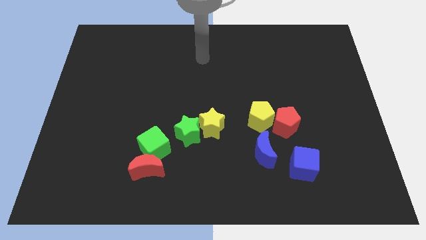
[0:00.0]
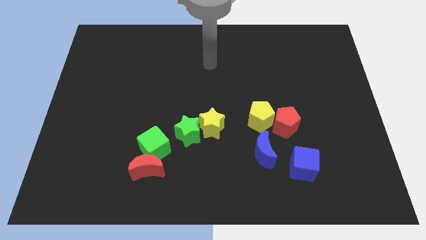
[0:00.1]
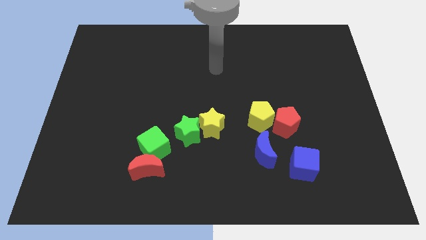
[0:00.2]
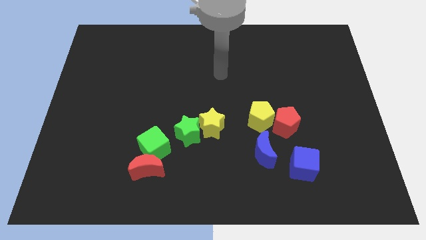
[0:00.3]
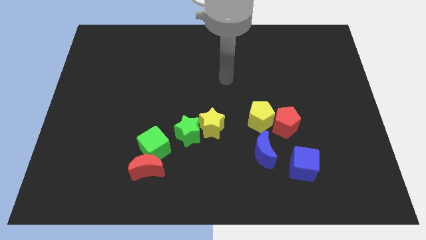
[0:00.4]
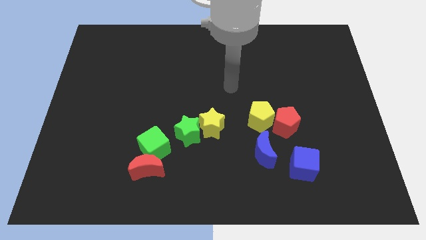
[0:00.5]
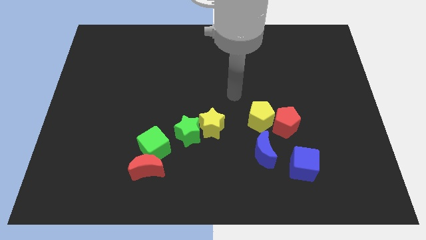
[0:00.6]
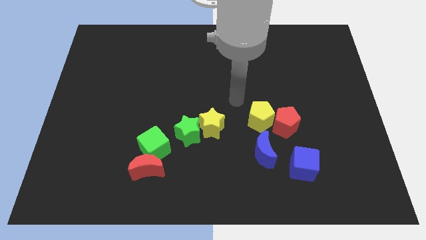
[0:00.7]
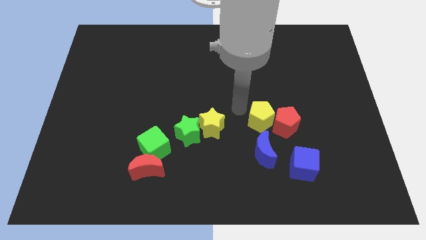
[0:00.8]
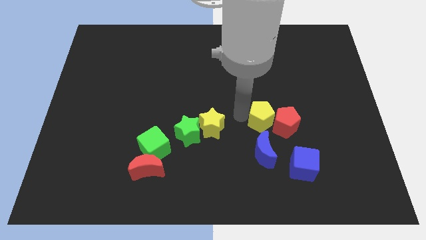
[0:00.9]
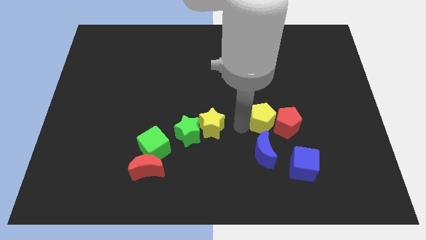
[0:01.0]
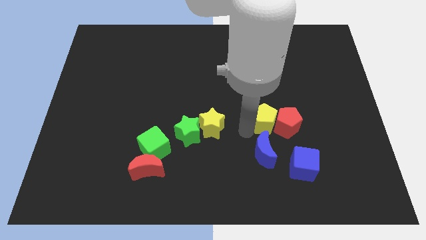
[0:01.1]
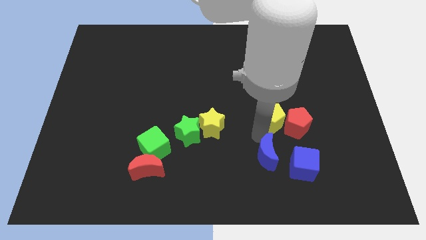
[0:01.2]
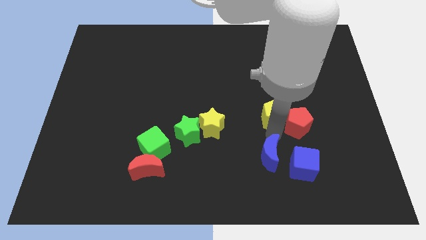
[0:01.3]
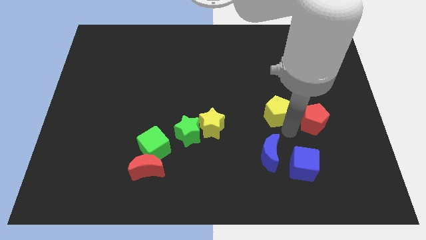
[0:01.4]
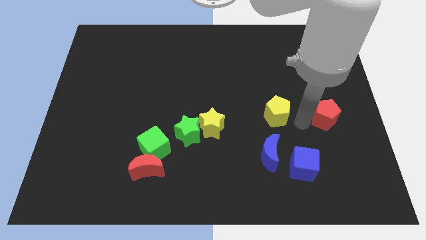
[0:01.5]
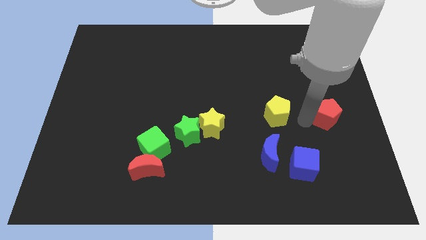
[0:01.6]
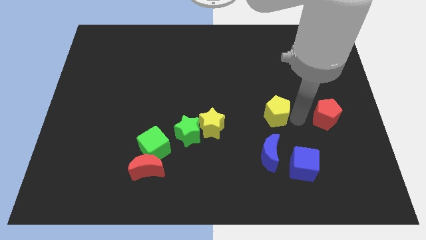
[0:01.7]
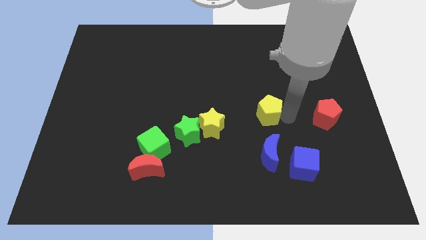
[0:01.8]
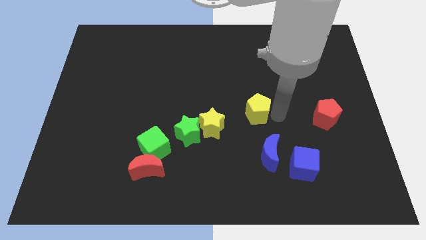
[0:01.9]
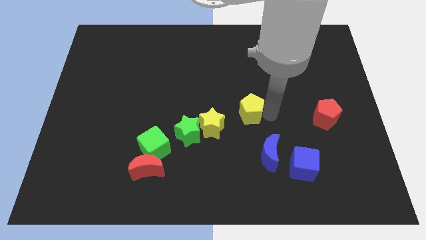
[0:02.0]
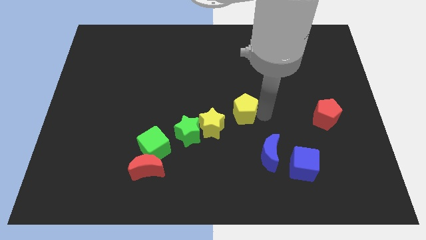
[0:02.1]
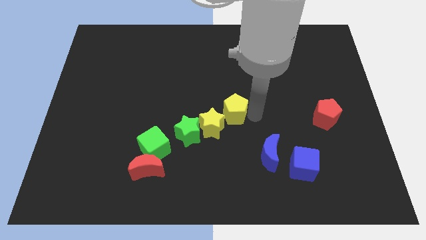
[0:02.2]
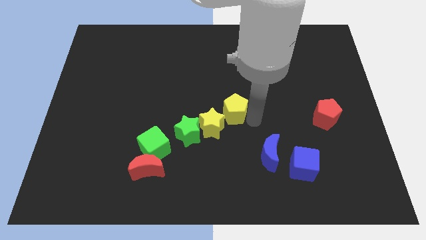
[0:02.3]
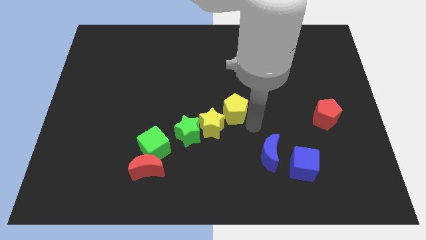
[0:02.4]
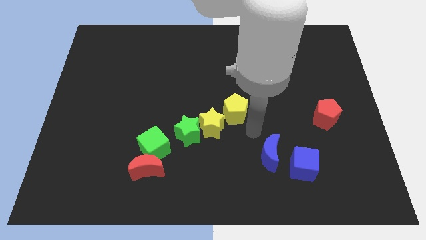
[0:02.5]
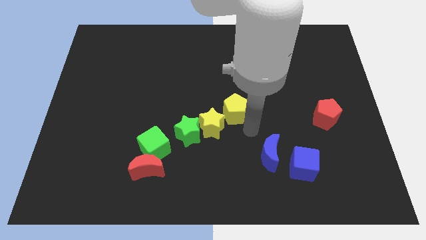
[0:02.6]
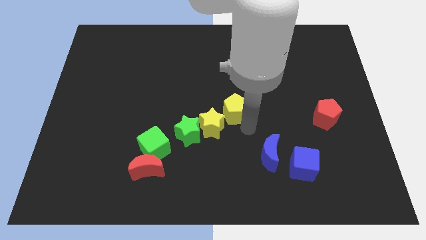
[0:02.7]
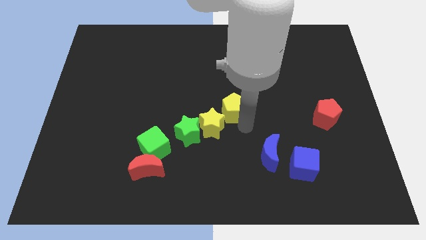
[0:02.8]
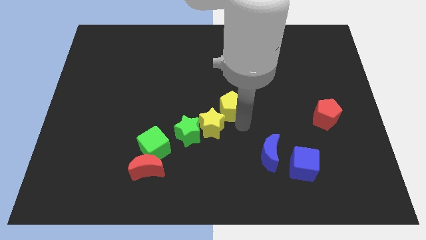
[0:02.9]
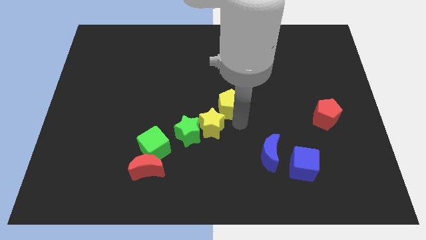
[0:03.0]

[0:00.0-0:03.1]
slightly slide the yellow pentagon diagonally upwards and to the left

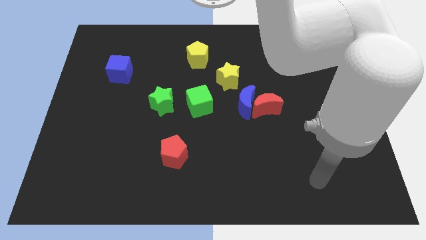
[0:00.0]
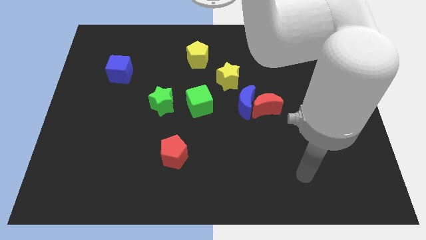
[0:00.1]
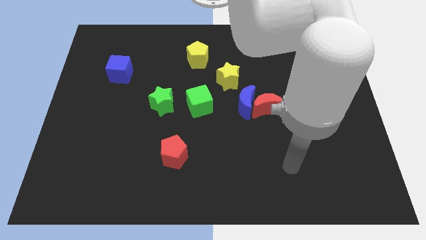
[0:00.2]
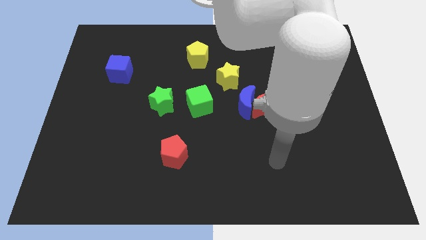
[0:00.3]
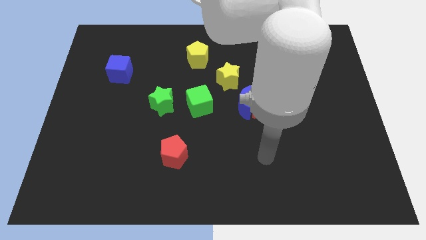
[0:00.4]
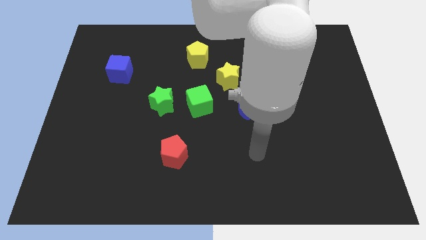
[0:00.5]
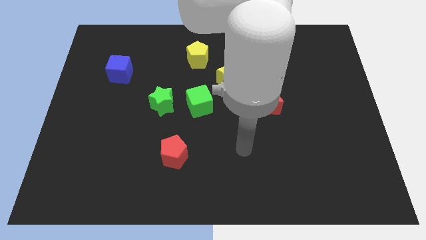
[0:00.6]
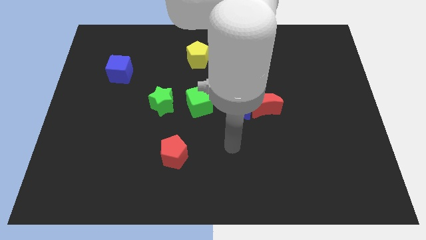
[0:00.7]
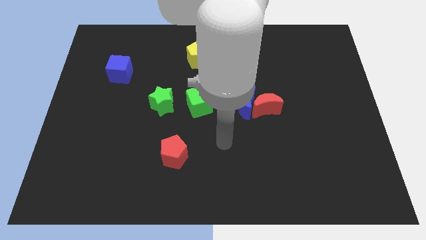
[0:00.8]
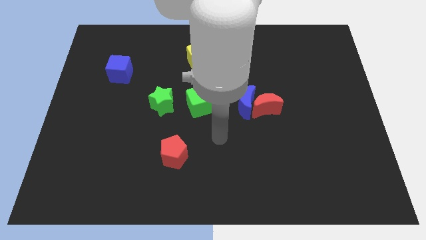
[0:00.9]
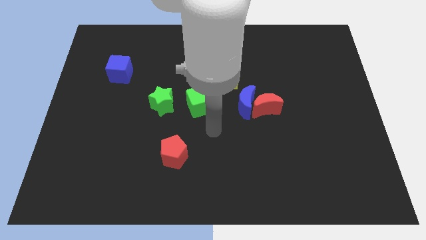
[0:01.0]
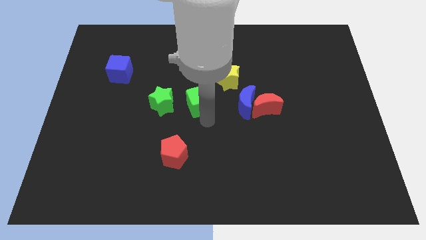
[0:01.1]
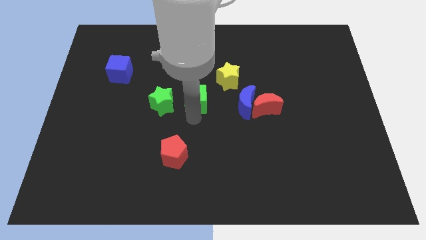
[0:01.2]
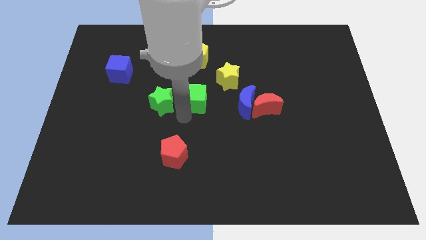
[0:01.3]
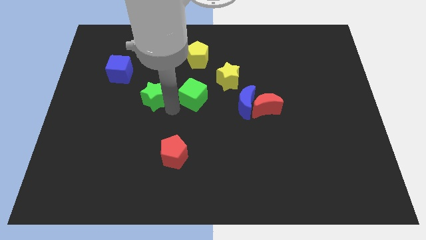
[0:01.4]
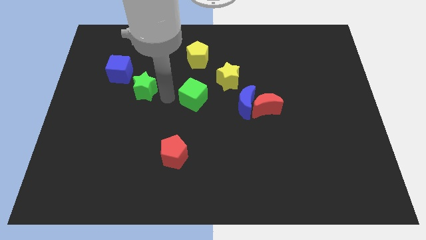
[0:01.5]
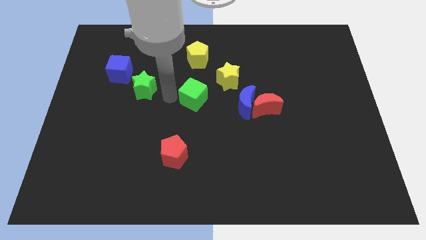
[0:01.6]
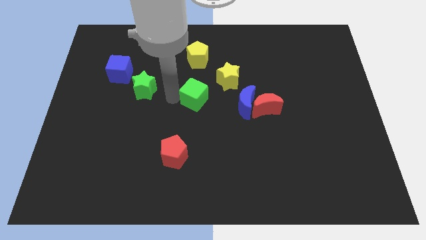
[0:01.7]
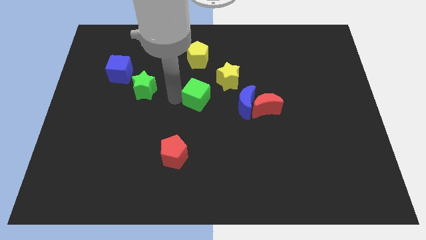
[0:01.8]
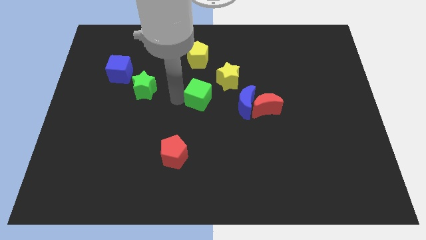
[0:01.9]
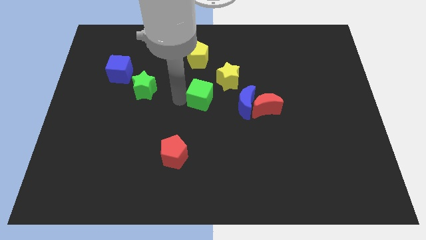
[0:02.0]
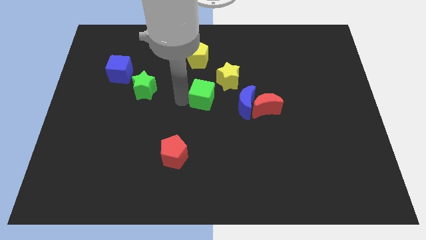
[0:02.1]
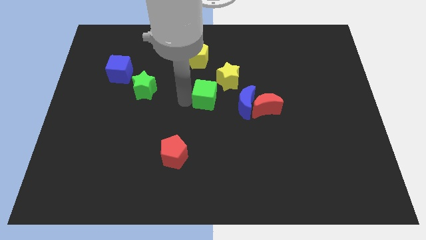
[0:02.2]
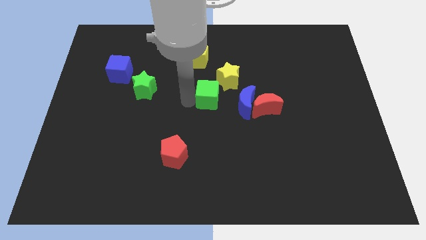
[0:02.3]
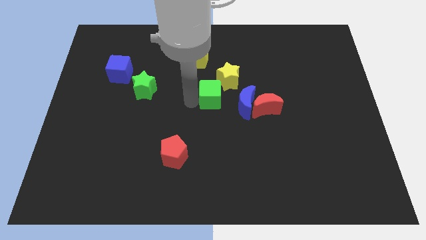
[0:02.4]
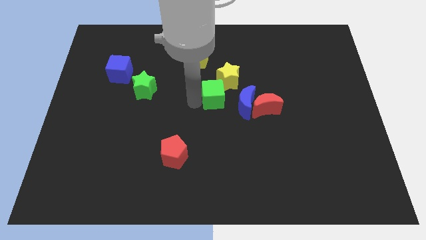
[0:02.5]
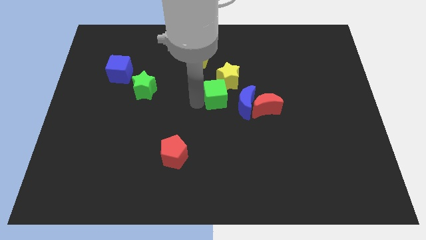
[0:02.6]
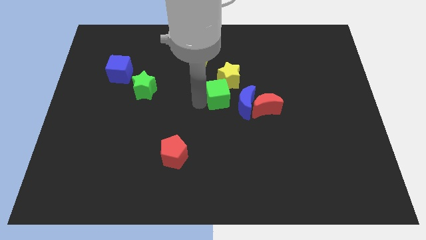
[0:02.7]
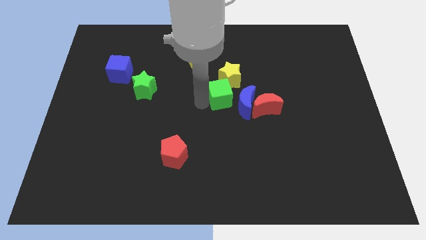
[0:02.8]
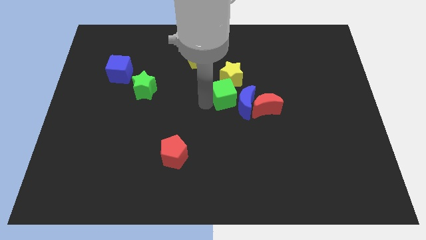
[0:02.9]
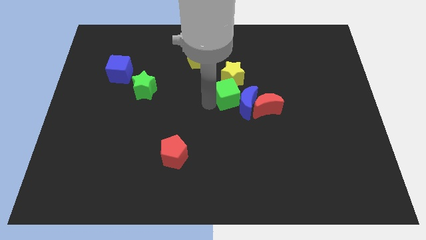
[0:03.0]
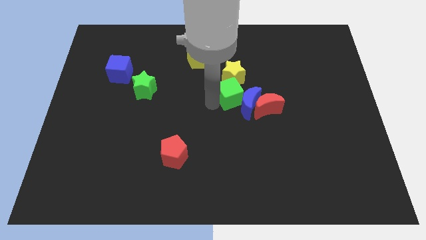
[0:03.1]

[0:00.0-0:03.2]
slightly push the green cube to the right

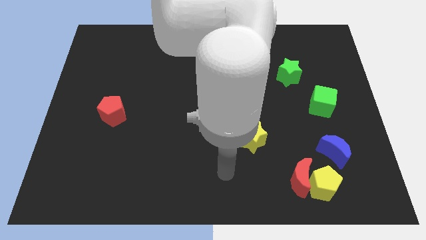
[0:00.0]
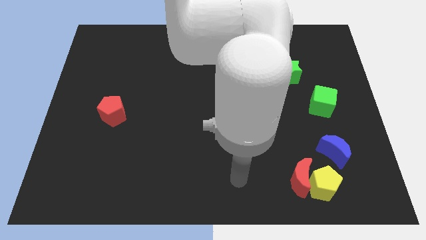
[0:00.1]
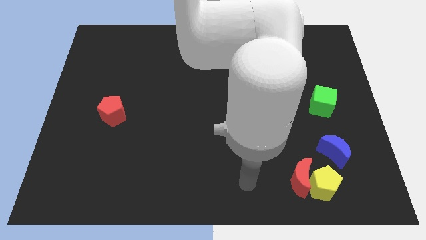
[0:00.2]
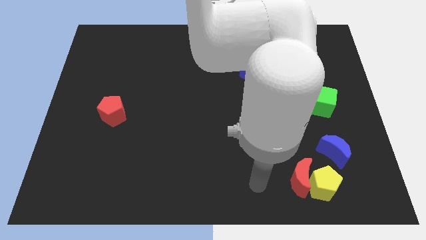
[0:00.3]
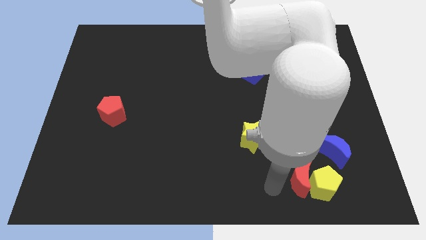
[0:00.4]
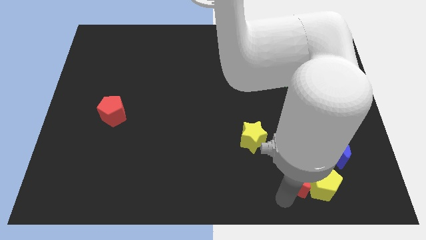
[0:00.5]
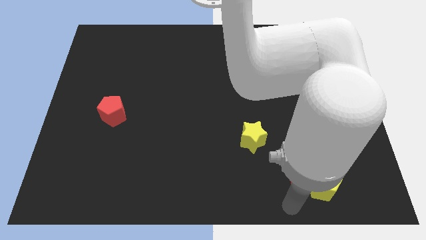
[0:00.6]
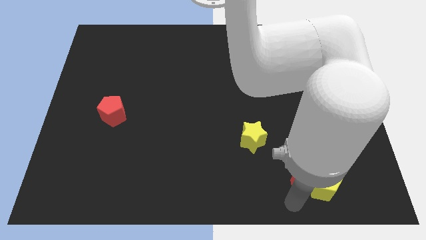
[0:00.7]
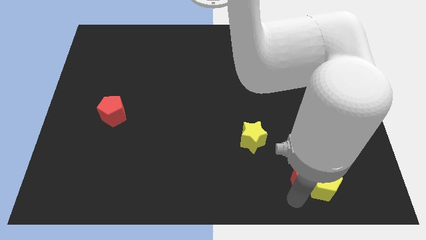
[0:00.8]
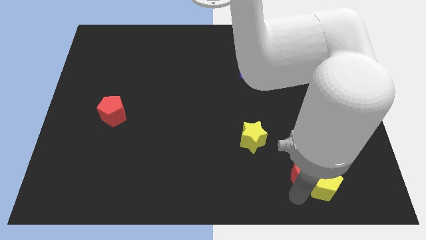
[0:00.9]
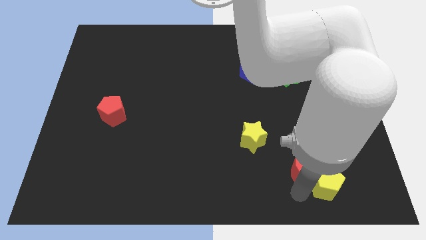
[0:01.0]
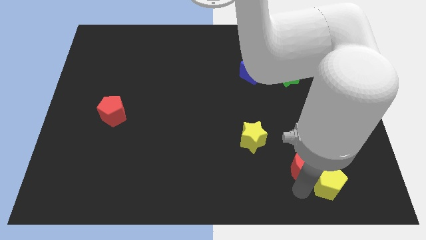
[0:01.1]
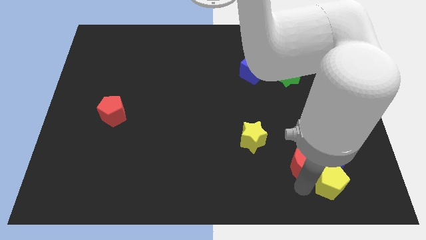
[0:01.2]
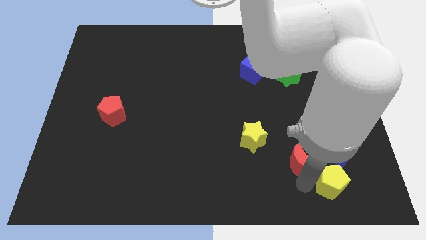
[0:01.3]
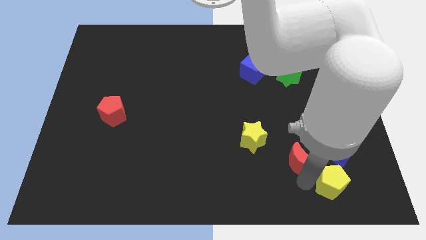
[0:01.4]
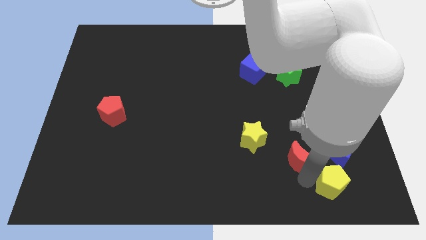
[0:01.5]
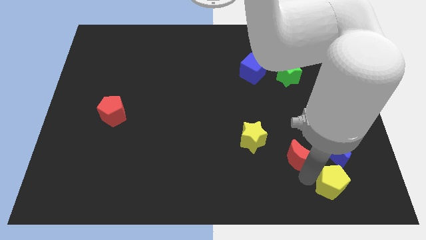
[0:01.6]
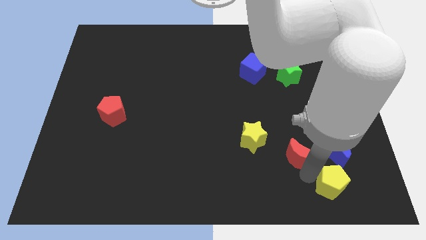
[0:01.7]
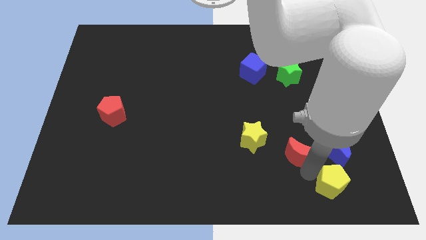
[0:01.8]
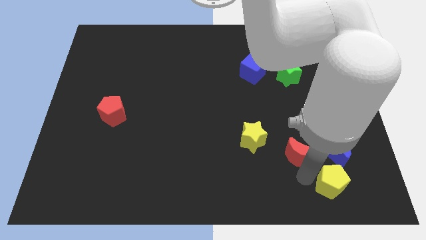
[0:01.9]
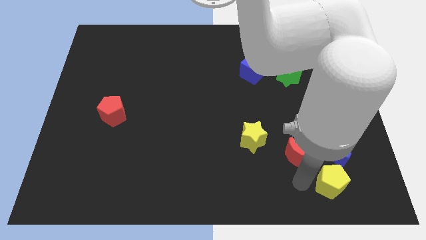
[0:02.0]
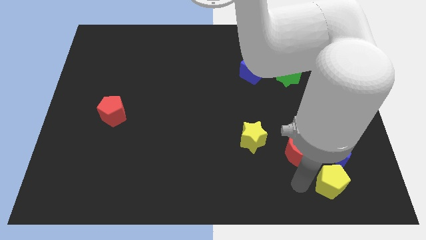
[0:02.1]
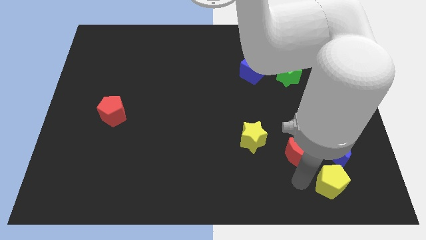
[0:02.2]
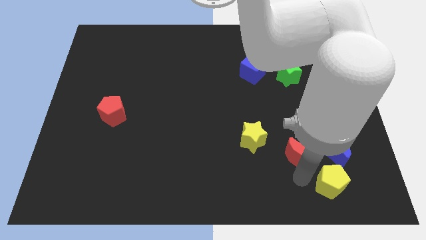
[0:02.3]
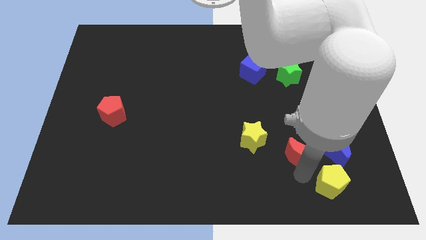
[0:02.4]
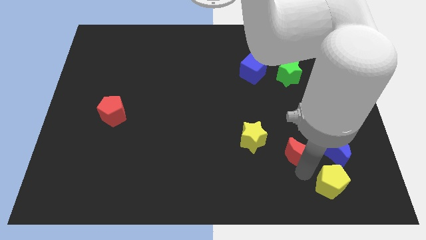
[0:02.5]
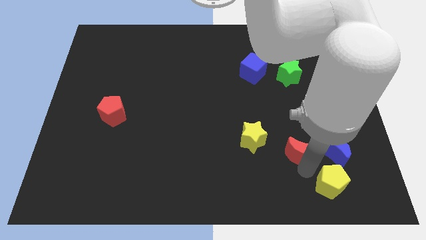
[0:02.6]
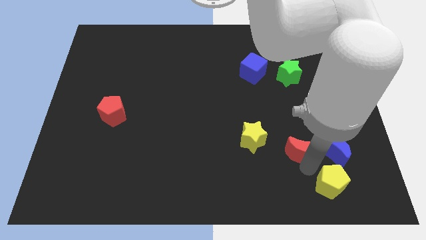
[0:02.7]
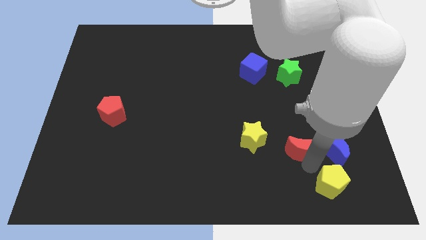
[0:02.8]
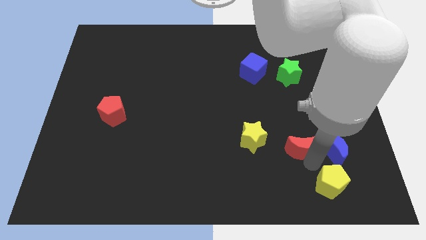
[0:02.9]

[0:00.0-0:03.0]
push the red moon up a bit
